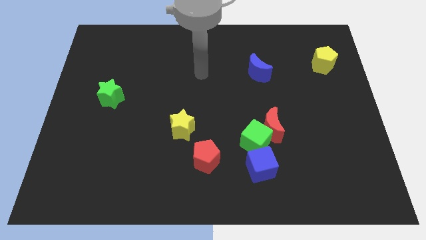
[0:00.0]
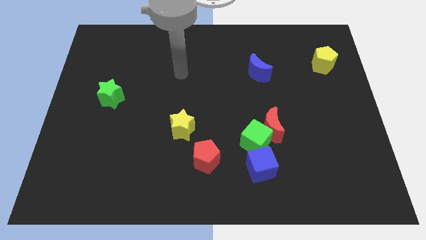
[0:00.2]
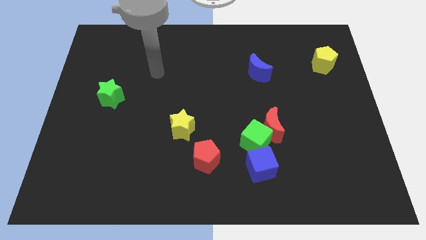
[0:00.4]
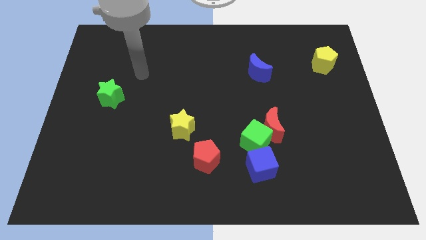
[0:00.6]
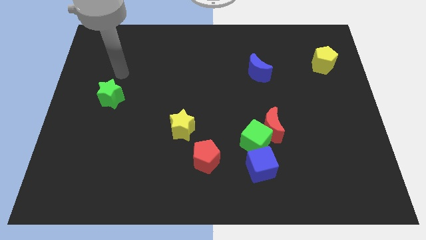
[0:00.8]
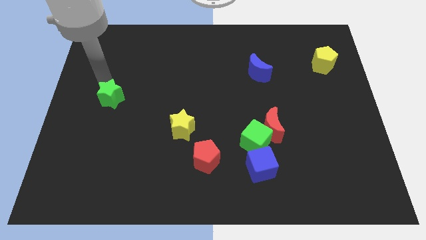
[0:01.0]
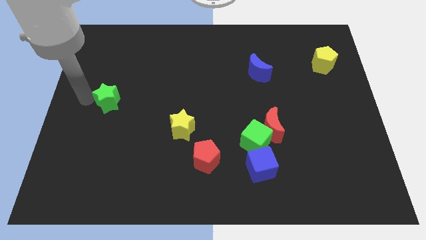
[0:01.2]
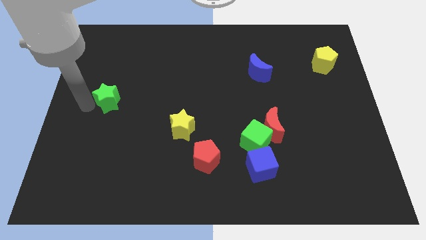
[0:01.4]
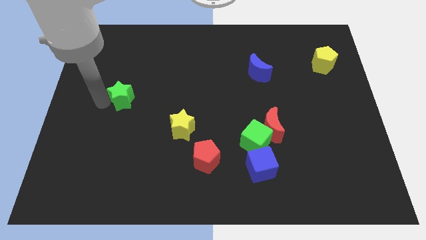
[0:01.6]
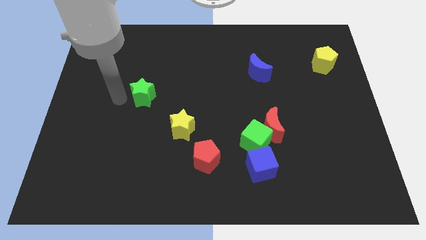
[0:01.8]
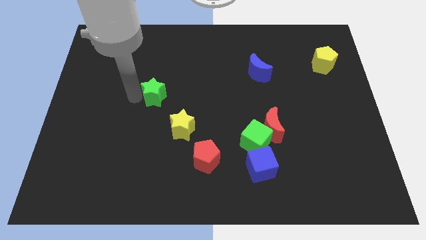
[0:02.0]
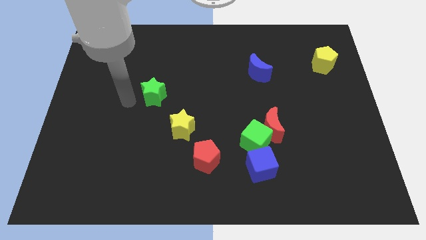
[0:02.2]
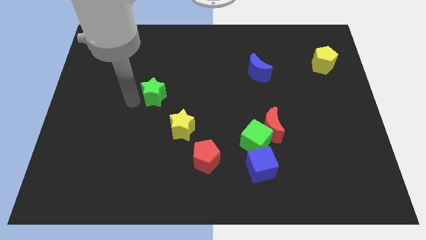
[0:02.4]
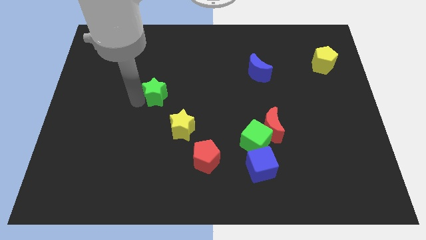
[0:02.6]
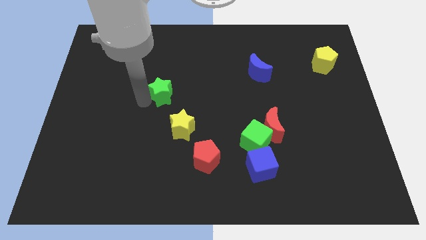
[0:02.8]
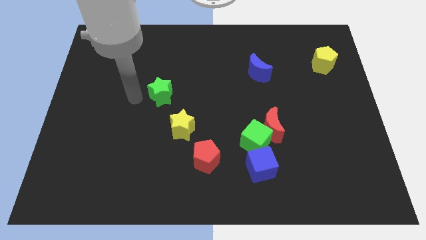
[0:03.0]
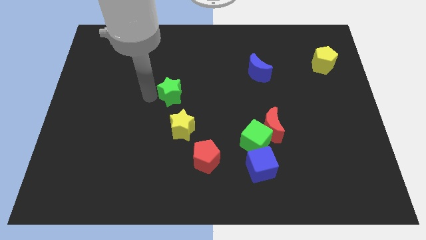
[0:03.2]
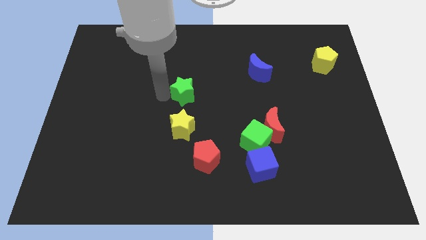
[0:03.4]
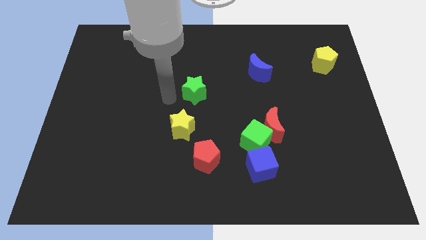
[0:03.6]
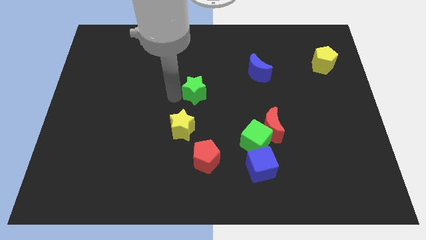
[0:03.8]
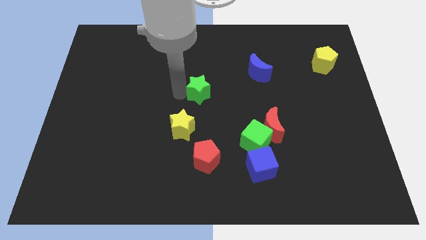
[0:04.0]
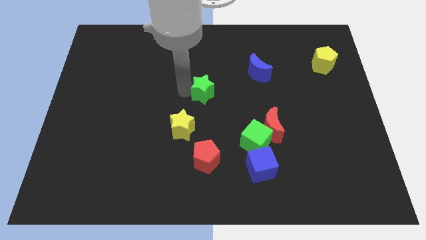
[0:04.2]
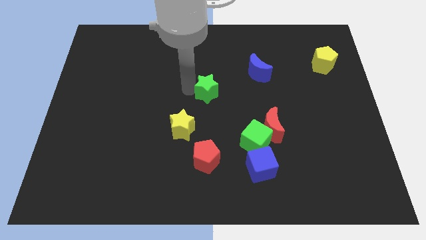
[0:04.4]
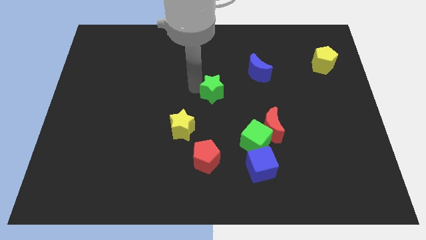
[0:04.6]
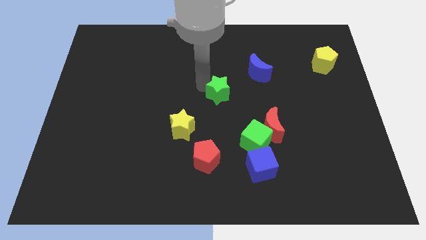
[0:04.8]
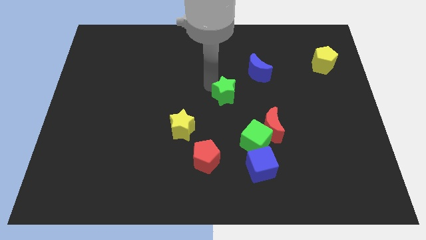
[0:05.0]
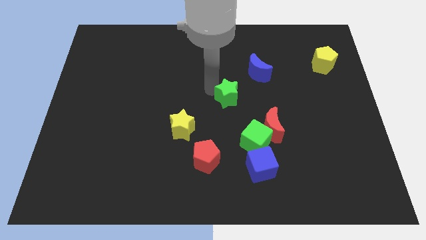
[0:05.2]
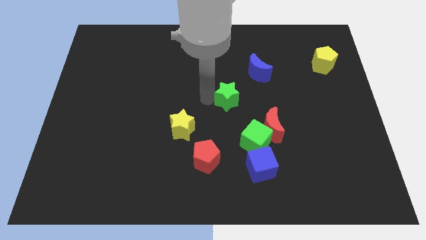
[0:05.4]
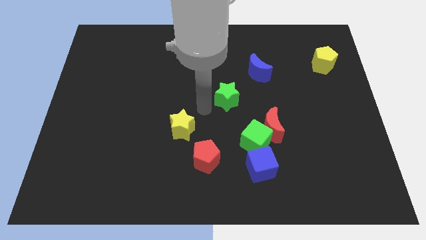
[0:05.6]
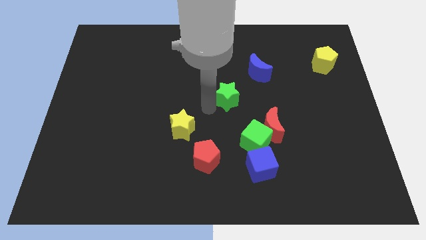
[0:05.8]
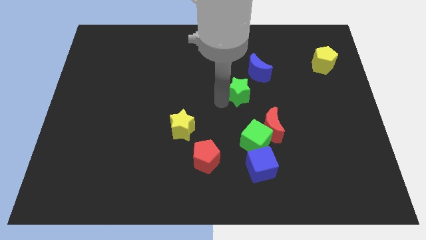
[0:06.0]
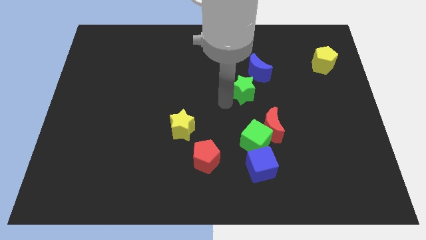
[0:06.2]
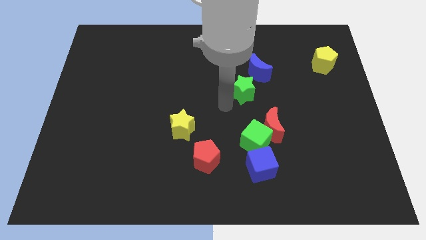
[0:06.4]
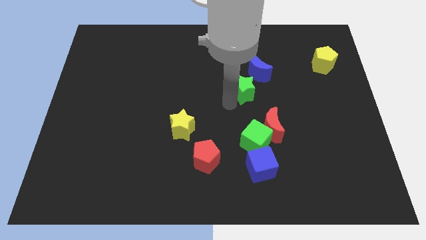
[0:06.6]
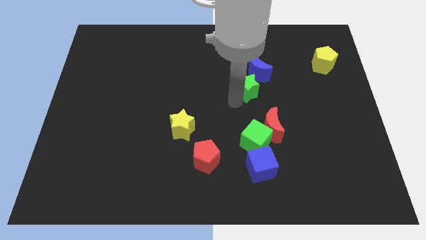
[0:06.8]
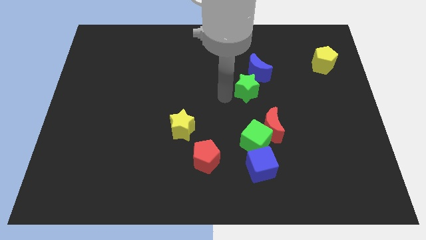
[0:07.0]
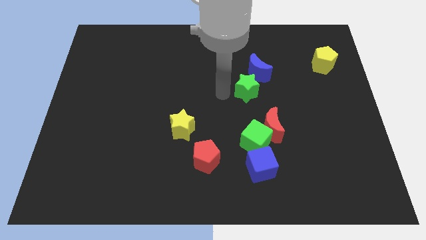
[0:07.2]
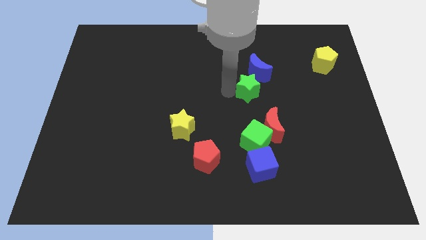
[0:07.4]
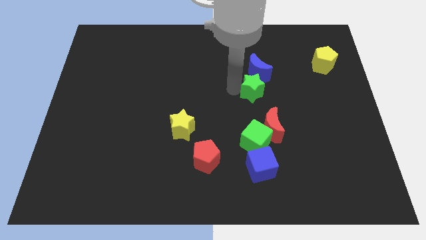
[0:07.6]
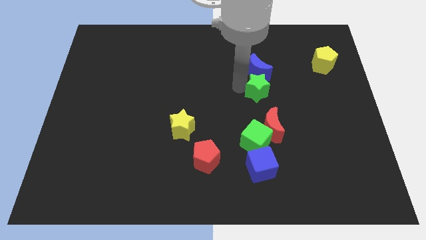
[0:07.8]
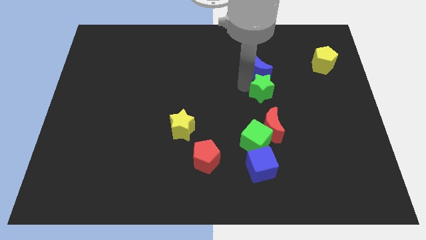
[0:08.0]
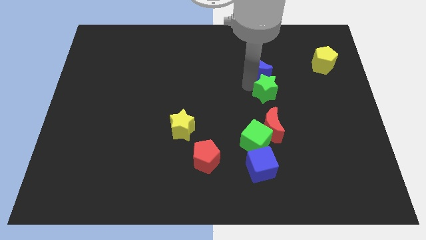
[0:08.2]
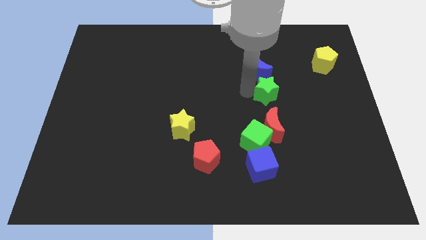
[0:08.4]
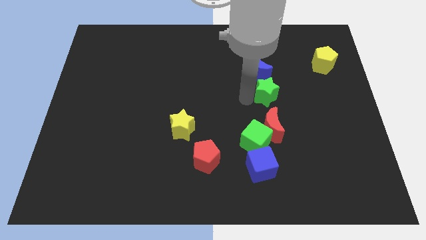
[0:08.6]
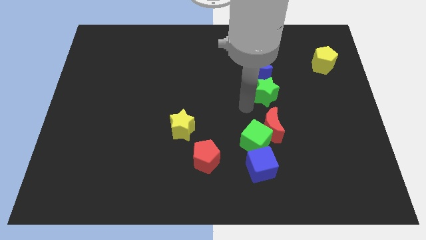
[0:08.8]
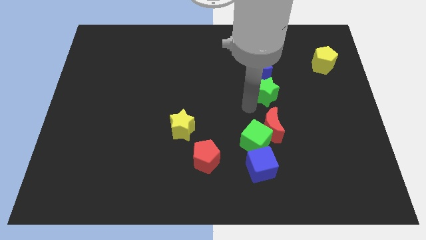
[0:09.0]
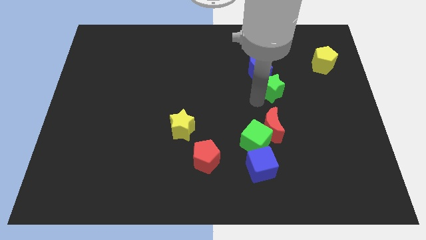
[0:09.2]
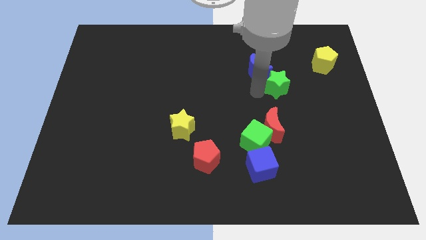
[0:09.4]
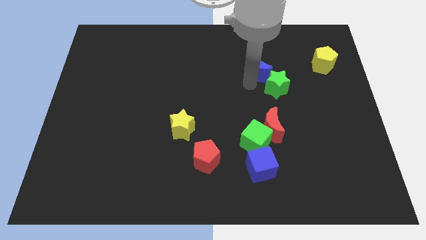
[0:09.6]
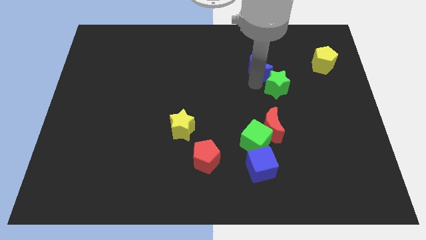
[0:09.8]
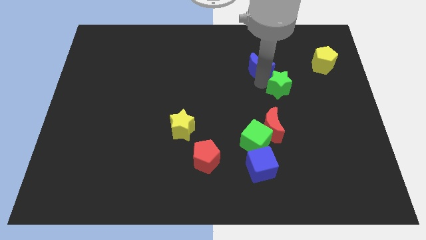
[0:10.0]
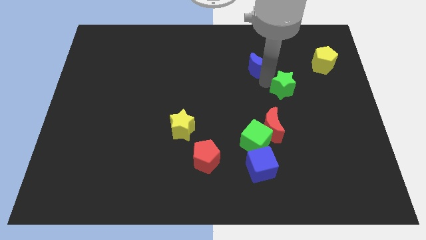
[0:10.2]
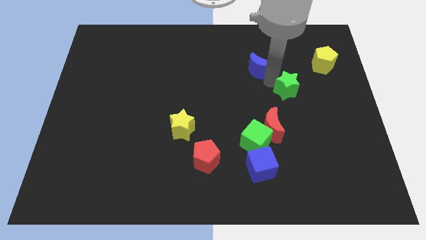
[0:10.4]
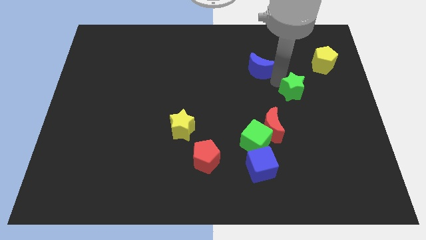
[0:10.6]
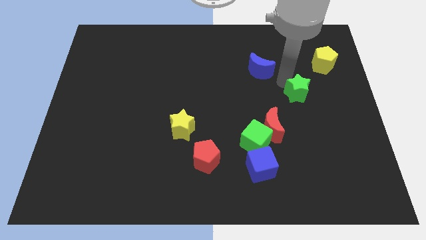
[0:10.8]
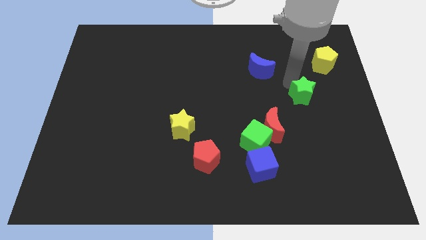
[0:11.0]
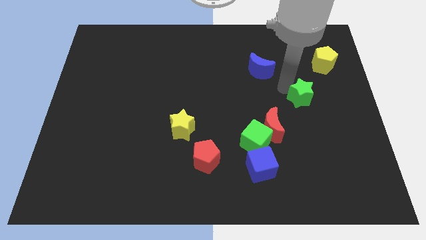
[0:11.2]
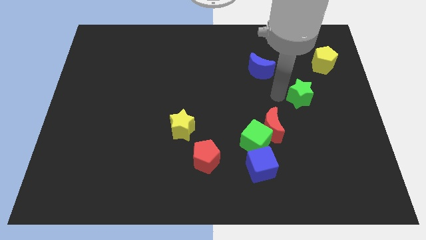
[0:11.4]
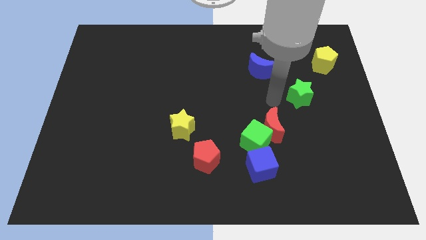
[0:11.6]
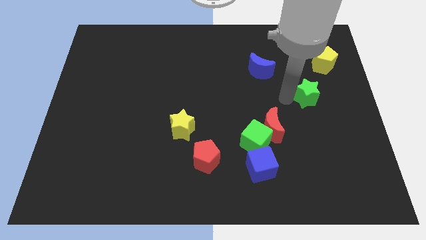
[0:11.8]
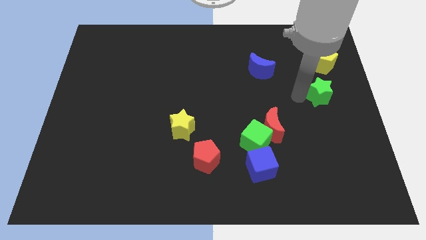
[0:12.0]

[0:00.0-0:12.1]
move the green star to the right side of the board
